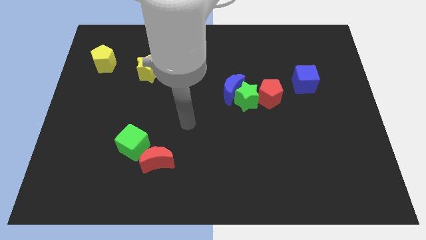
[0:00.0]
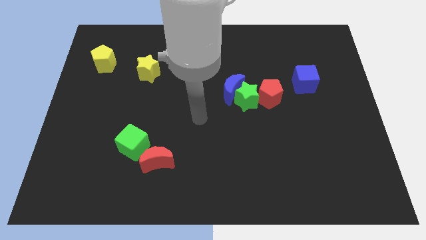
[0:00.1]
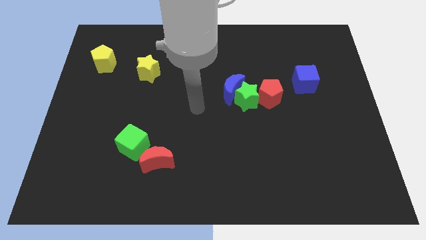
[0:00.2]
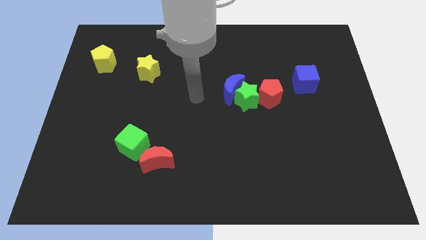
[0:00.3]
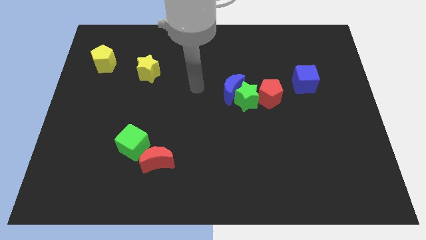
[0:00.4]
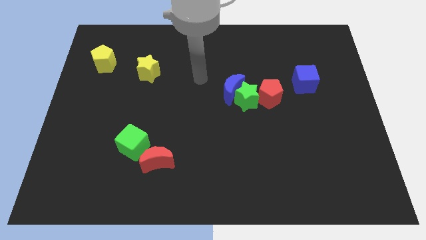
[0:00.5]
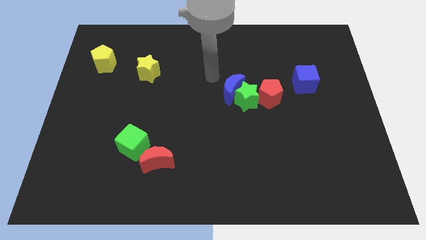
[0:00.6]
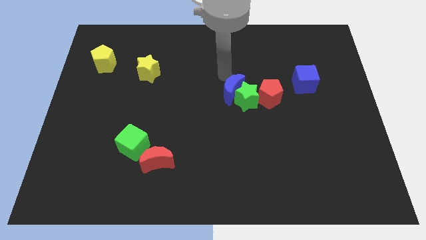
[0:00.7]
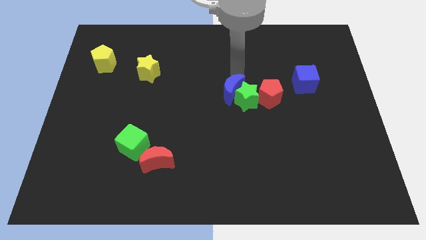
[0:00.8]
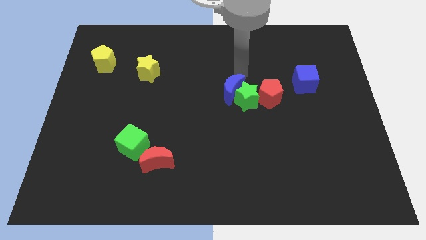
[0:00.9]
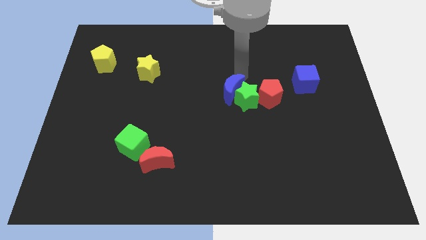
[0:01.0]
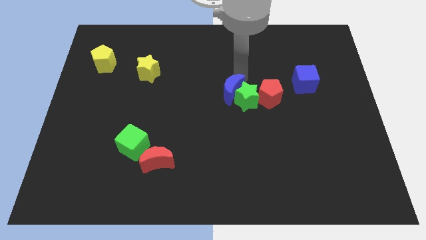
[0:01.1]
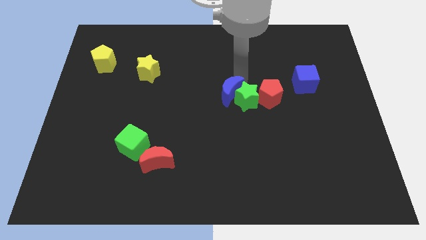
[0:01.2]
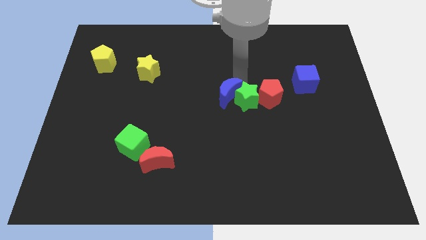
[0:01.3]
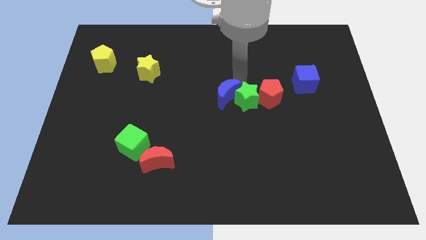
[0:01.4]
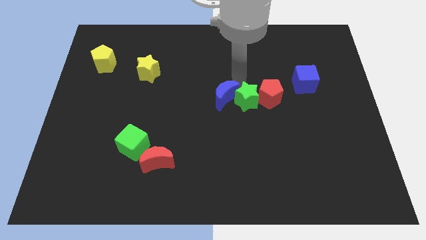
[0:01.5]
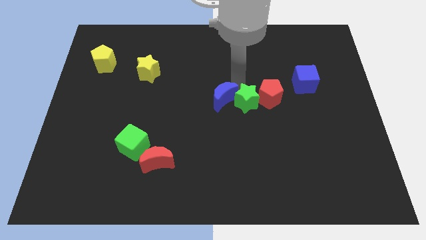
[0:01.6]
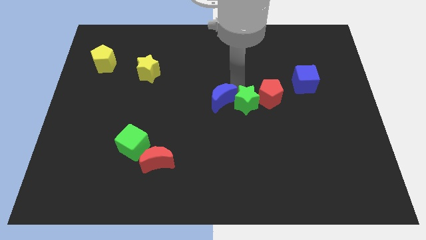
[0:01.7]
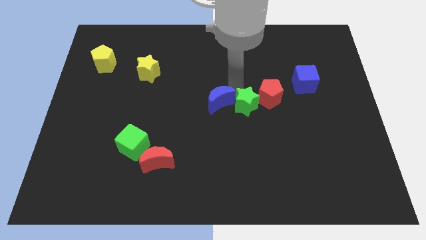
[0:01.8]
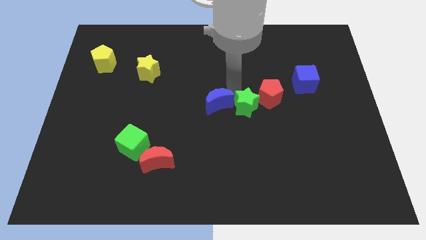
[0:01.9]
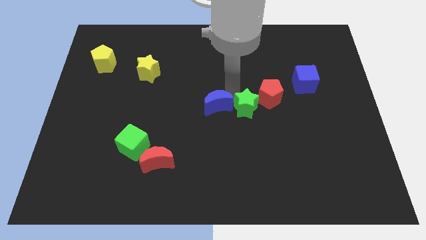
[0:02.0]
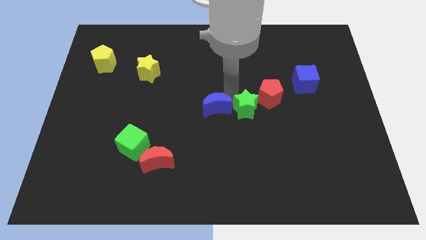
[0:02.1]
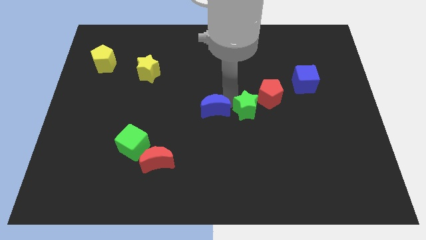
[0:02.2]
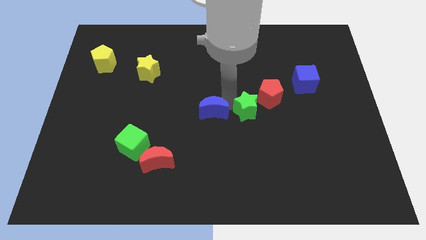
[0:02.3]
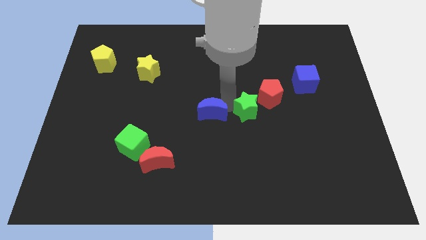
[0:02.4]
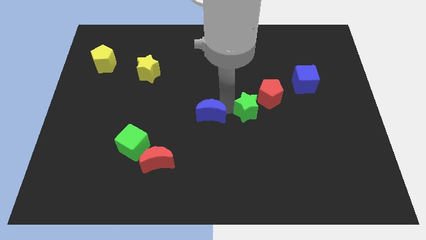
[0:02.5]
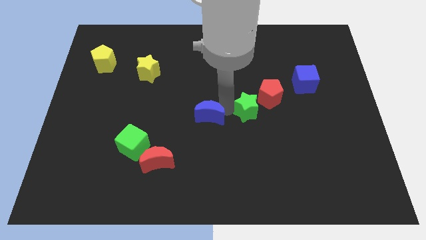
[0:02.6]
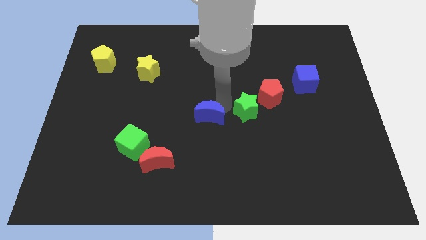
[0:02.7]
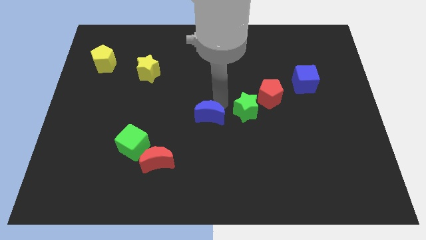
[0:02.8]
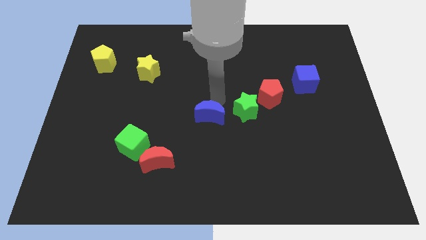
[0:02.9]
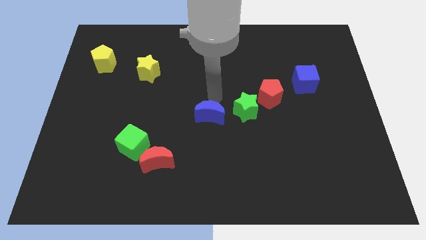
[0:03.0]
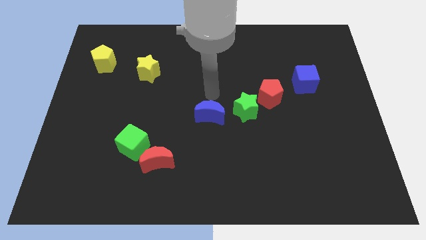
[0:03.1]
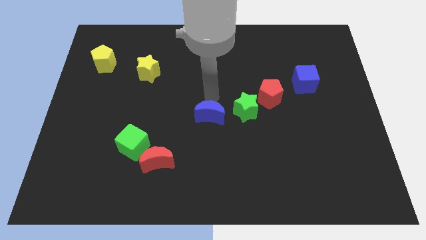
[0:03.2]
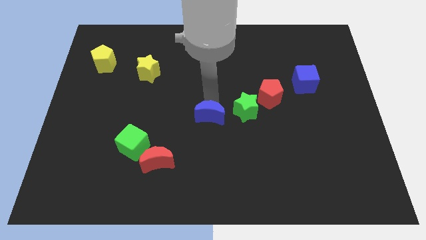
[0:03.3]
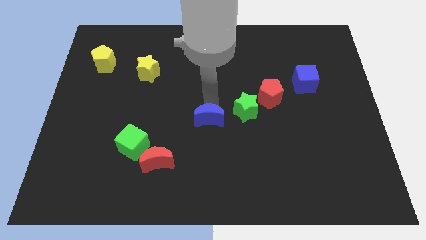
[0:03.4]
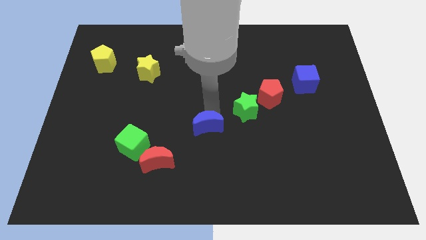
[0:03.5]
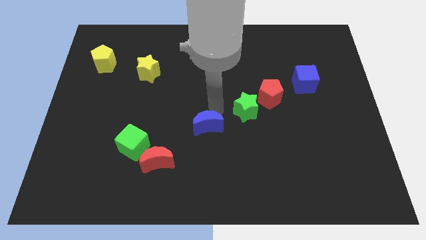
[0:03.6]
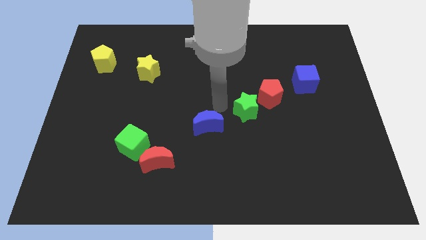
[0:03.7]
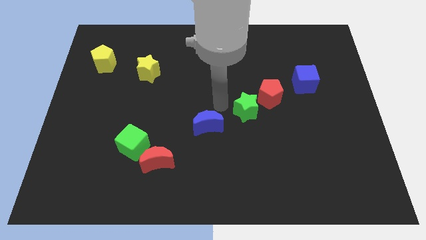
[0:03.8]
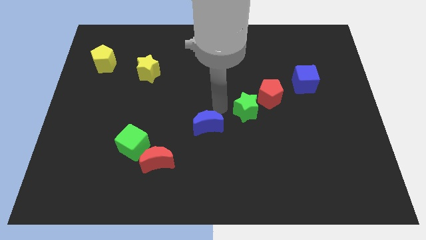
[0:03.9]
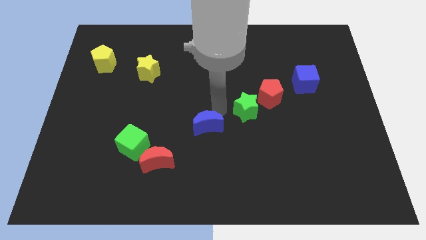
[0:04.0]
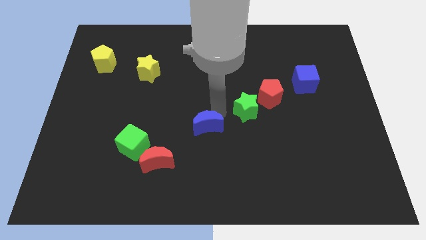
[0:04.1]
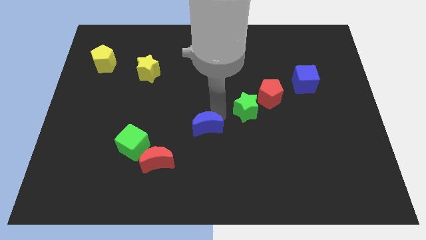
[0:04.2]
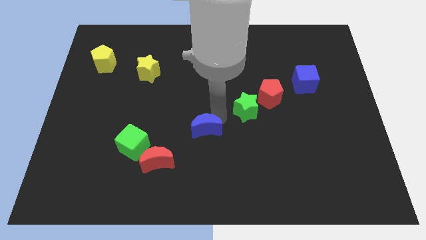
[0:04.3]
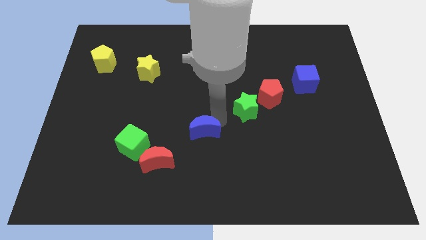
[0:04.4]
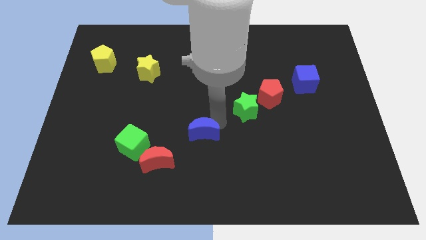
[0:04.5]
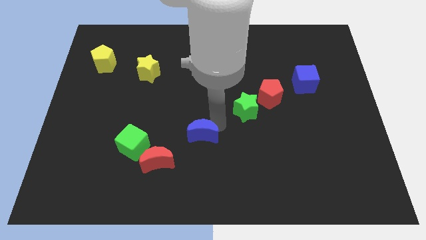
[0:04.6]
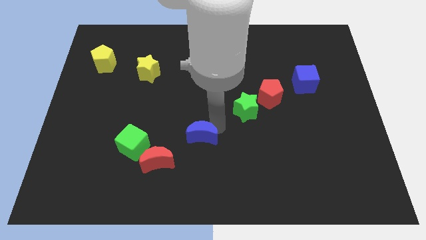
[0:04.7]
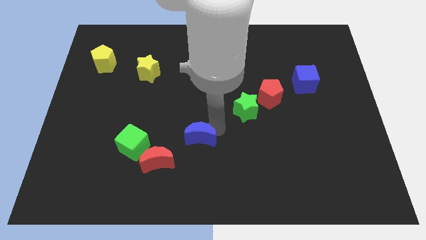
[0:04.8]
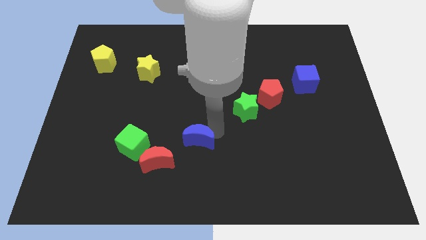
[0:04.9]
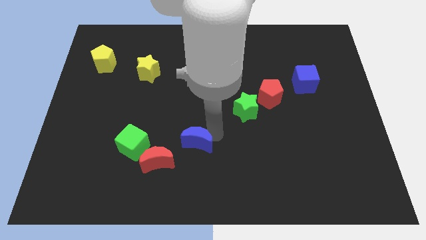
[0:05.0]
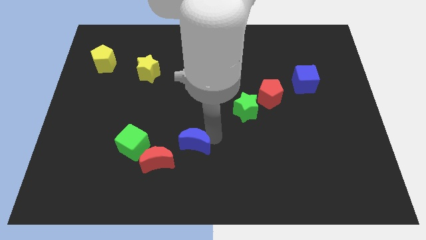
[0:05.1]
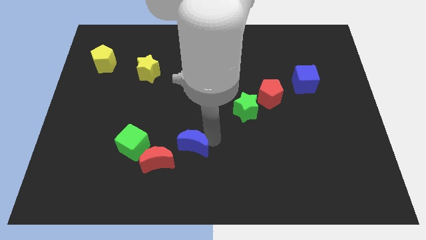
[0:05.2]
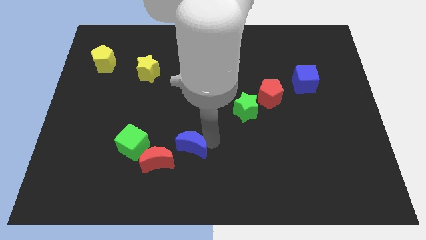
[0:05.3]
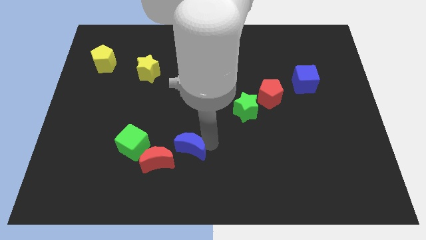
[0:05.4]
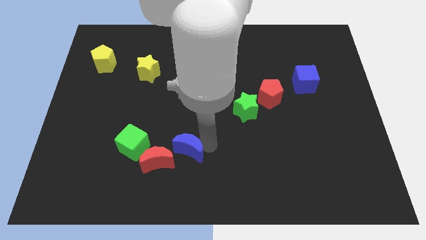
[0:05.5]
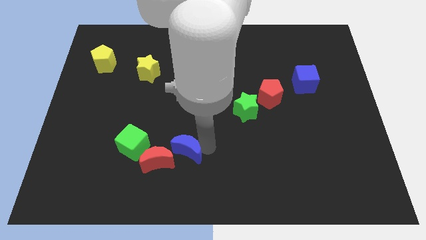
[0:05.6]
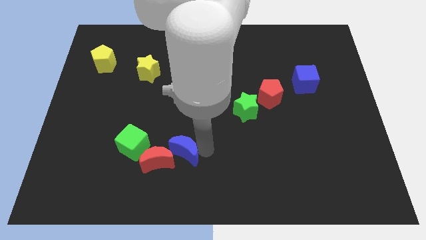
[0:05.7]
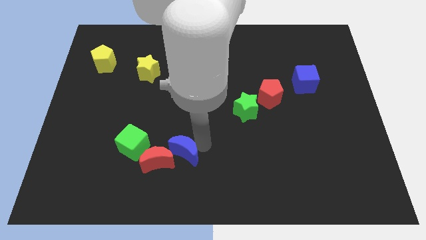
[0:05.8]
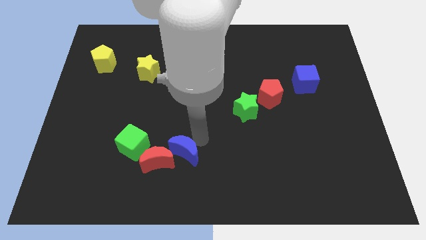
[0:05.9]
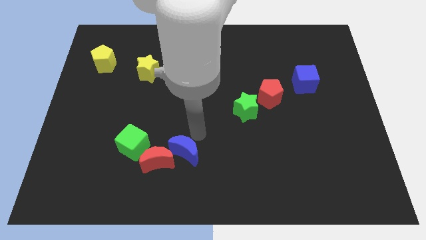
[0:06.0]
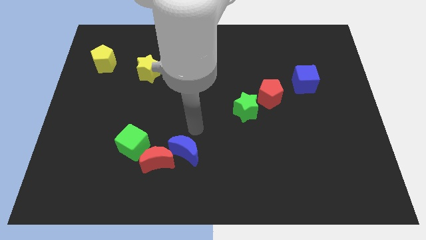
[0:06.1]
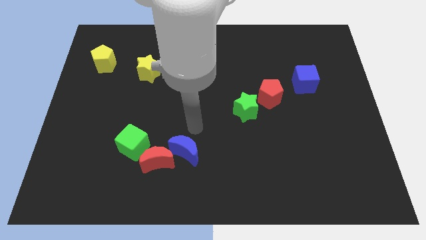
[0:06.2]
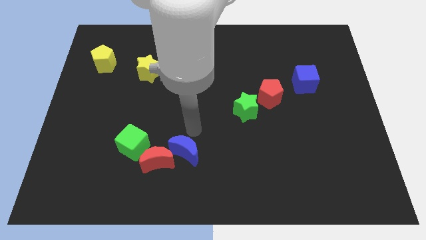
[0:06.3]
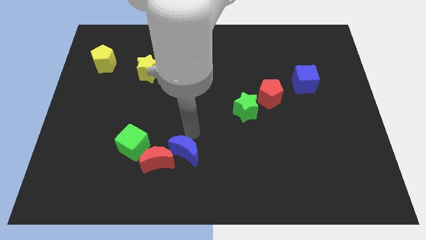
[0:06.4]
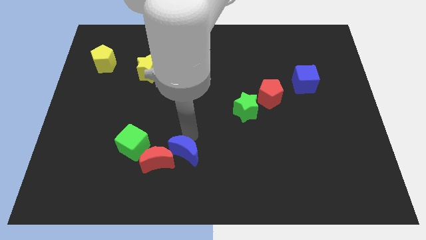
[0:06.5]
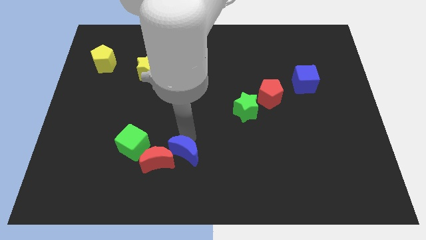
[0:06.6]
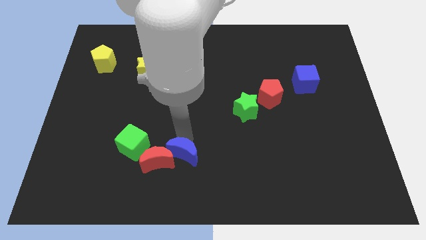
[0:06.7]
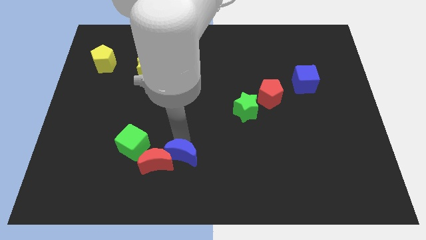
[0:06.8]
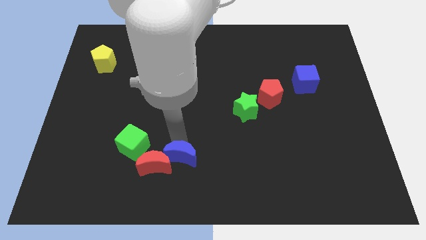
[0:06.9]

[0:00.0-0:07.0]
move the blue moon diagonally downwards and left

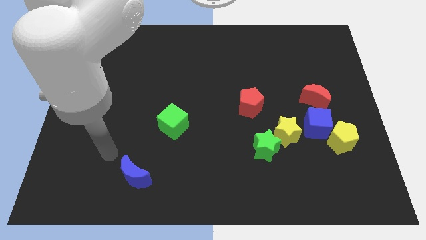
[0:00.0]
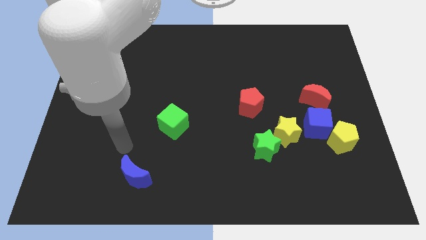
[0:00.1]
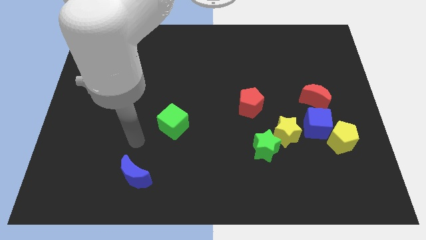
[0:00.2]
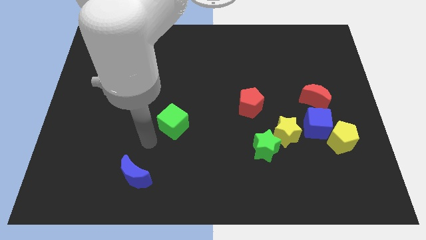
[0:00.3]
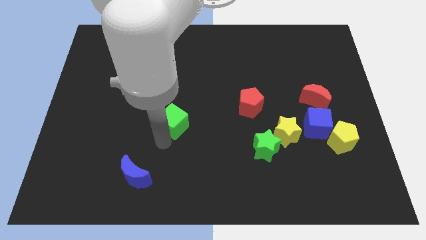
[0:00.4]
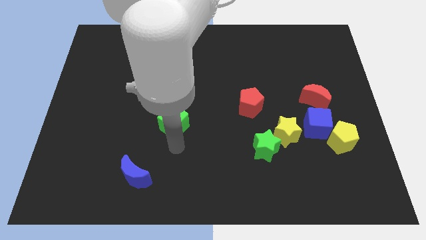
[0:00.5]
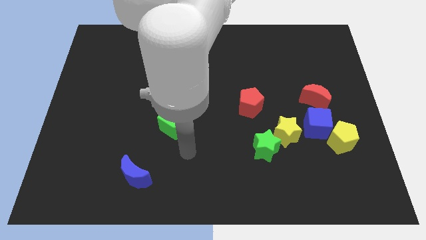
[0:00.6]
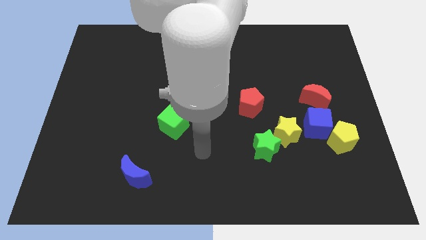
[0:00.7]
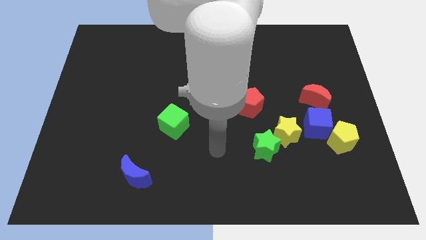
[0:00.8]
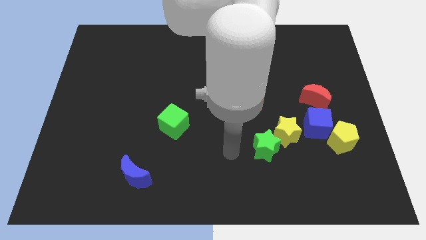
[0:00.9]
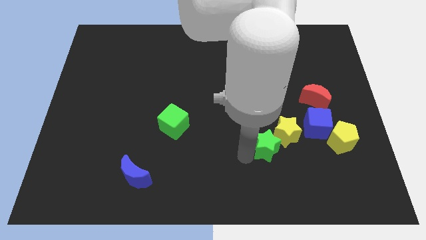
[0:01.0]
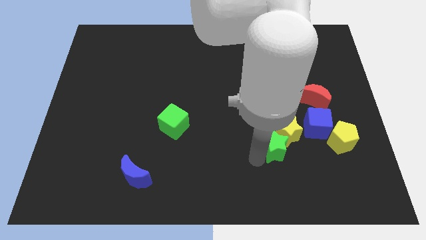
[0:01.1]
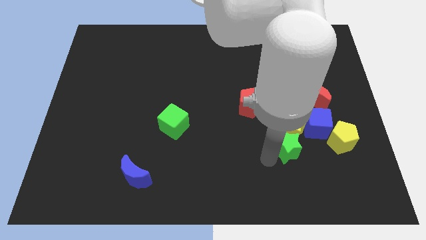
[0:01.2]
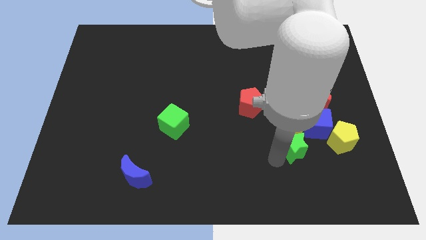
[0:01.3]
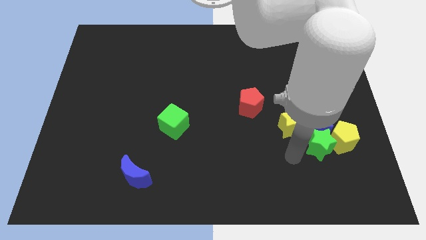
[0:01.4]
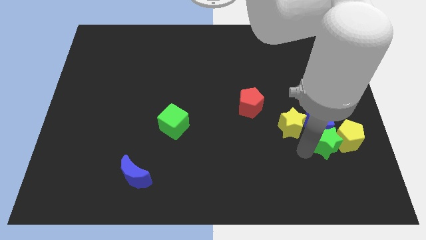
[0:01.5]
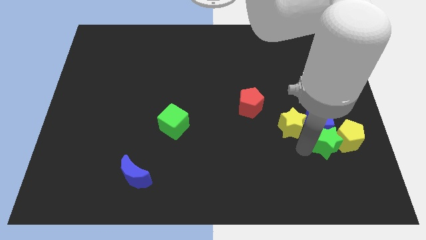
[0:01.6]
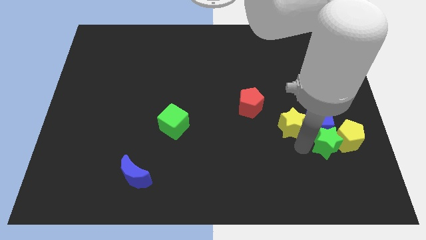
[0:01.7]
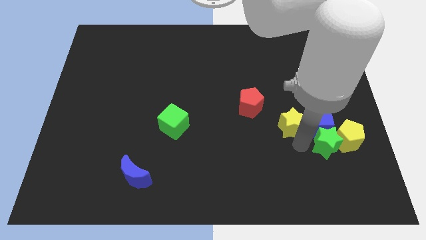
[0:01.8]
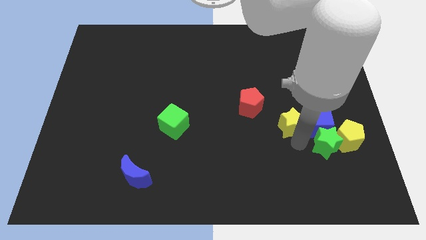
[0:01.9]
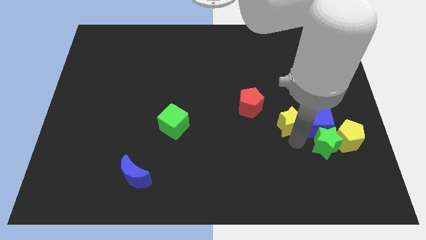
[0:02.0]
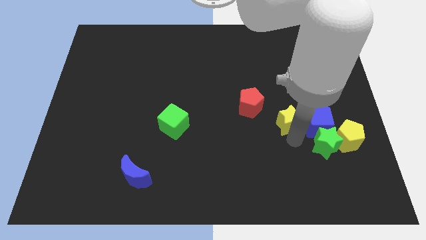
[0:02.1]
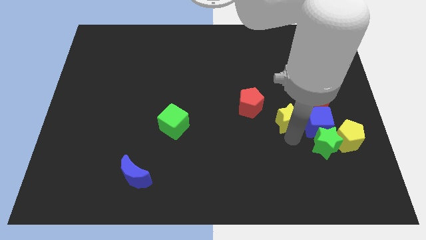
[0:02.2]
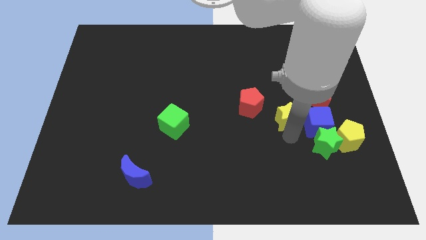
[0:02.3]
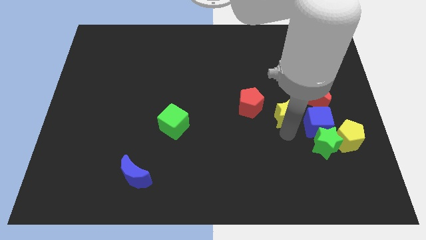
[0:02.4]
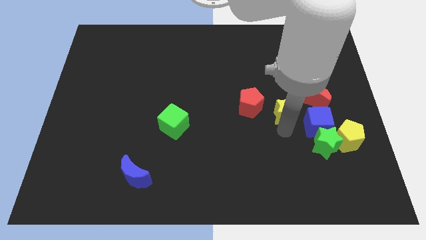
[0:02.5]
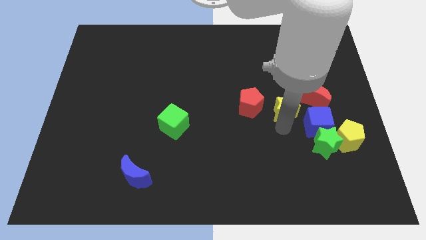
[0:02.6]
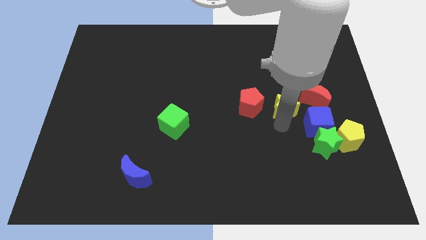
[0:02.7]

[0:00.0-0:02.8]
slightly slide the yellow star upwards
